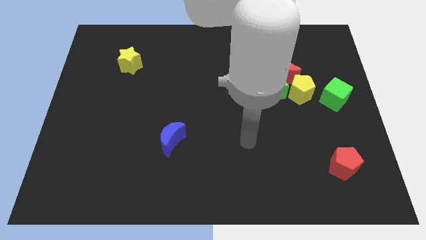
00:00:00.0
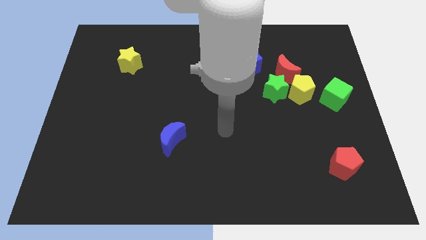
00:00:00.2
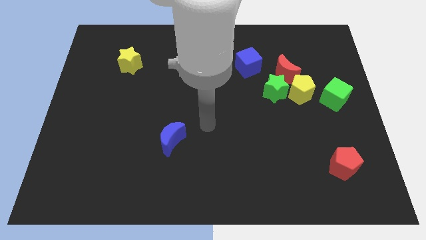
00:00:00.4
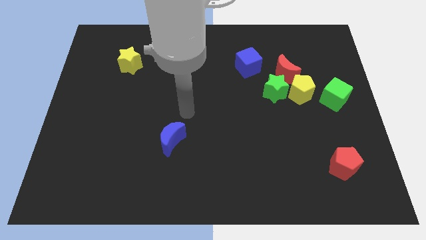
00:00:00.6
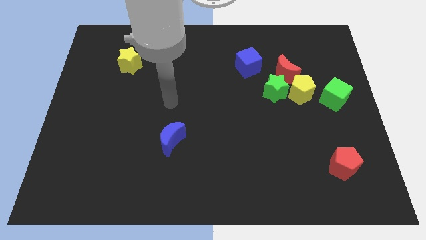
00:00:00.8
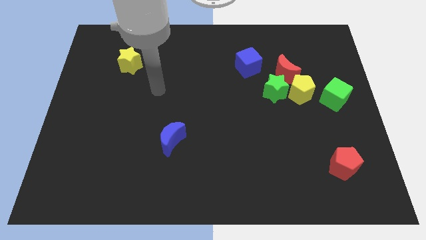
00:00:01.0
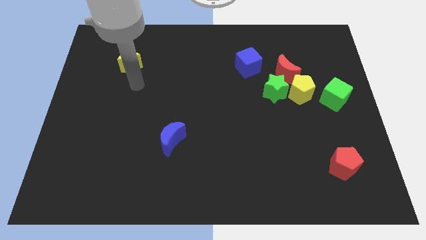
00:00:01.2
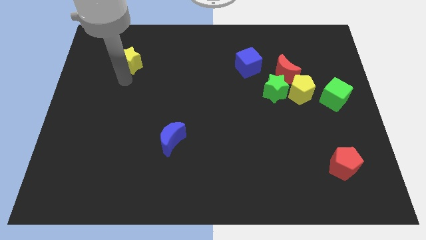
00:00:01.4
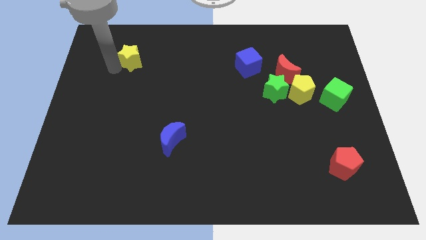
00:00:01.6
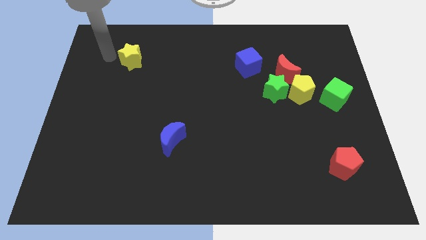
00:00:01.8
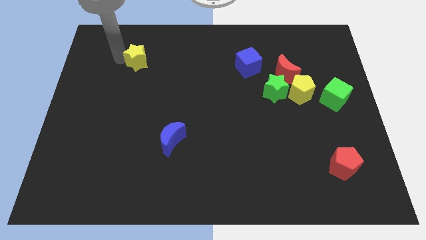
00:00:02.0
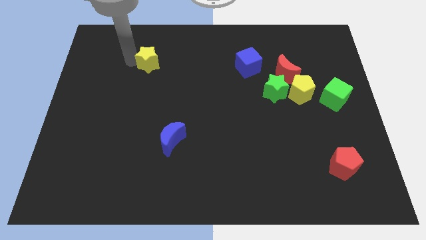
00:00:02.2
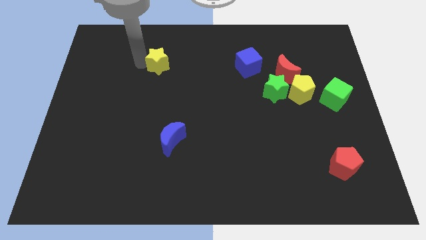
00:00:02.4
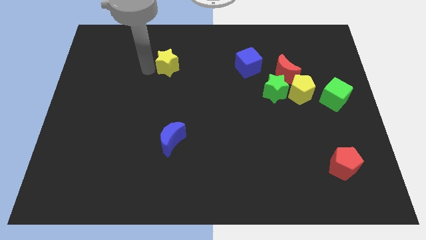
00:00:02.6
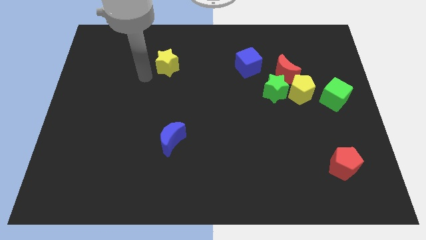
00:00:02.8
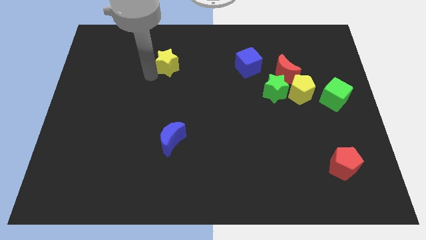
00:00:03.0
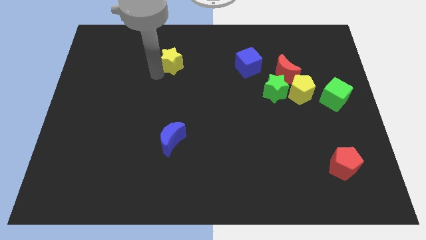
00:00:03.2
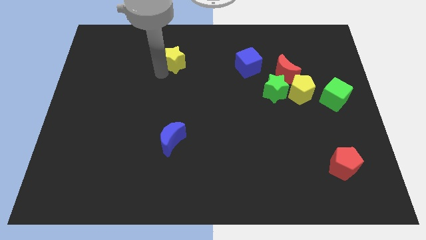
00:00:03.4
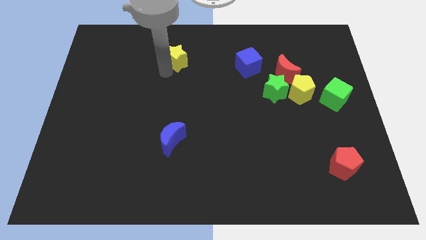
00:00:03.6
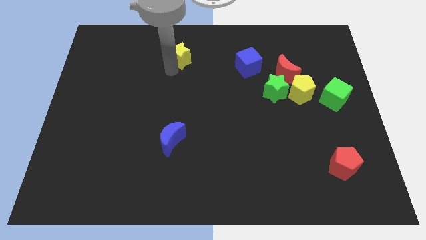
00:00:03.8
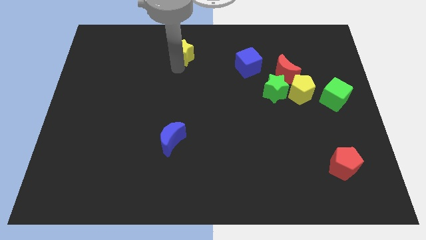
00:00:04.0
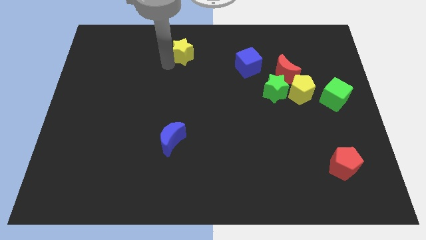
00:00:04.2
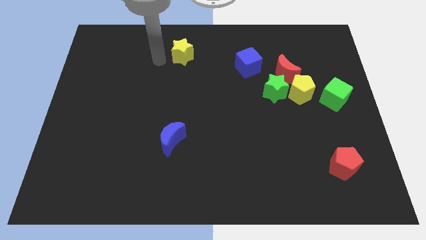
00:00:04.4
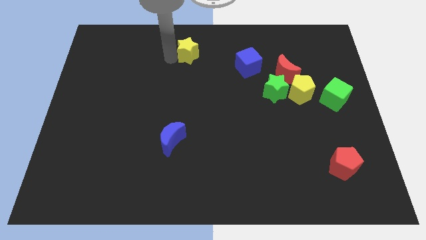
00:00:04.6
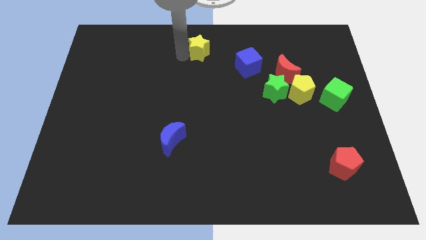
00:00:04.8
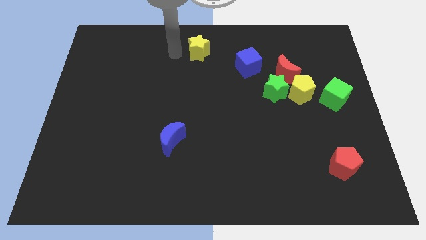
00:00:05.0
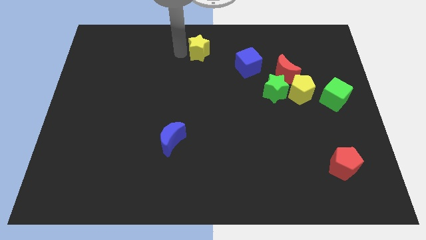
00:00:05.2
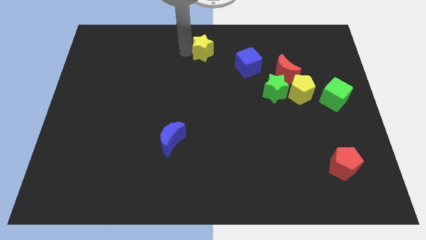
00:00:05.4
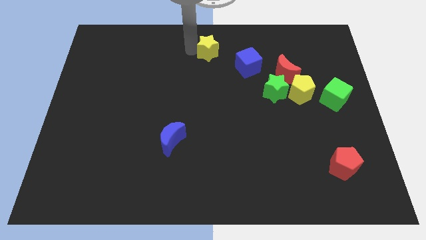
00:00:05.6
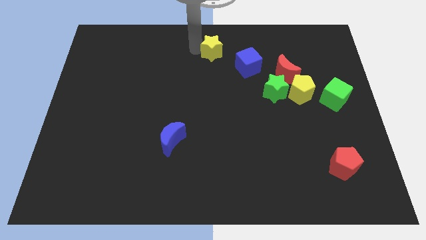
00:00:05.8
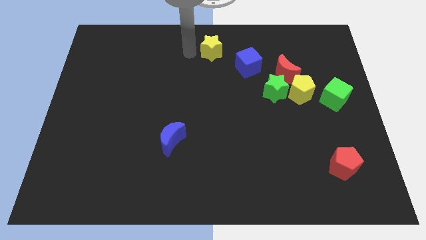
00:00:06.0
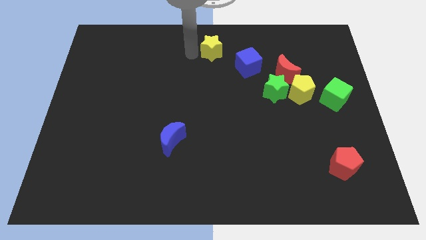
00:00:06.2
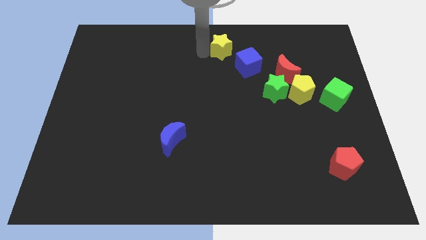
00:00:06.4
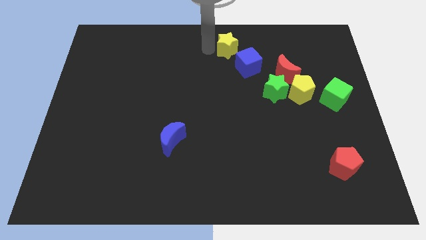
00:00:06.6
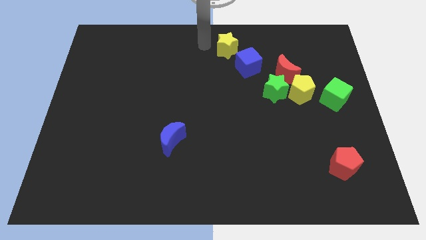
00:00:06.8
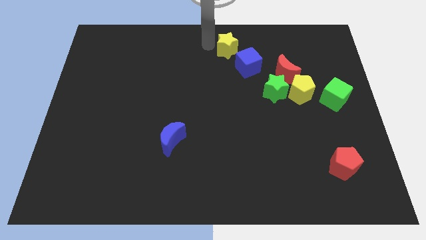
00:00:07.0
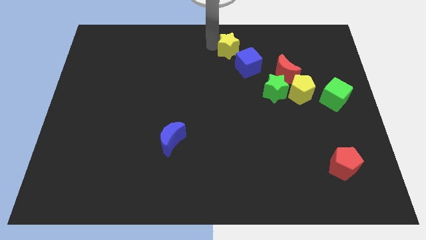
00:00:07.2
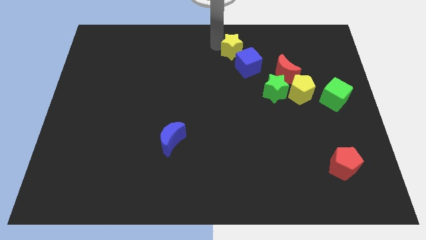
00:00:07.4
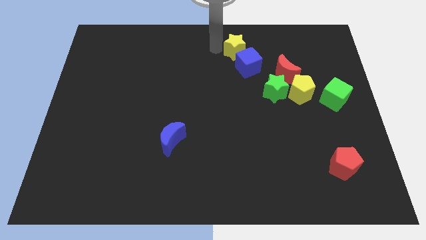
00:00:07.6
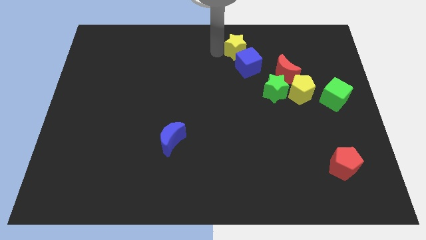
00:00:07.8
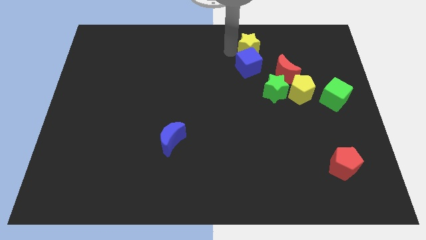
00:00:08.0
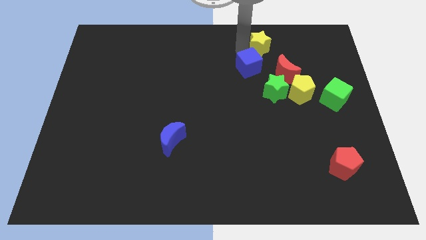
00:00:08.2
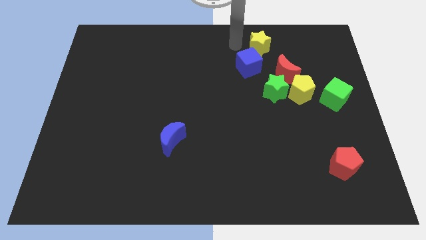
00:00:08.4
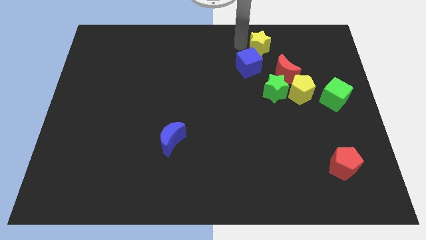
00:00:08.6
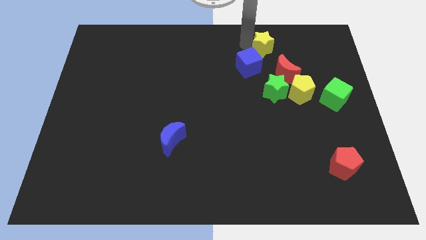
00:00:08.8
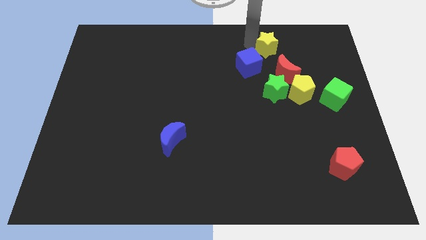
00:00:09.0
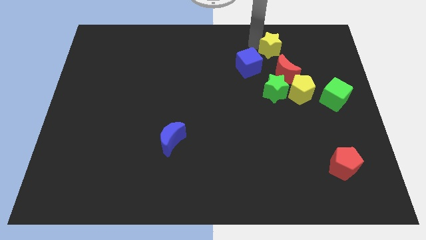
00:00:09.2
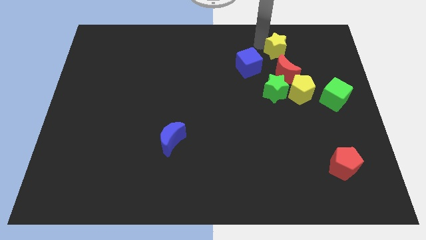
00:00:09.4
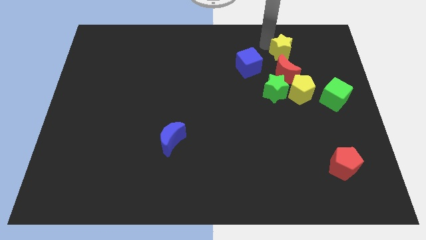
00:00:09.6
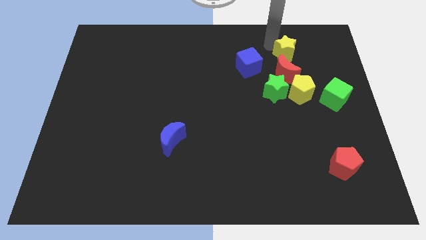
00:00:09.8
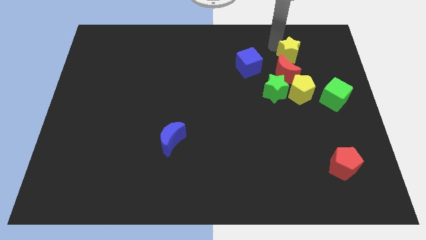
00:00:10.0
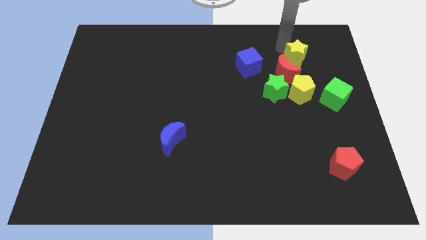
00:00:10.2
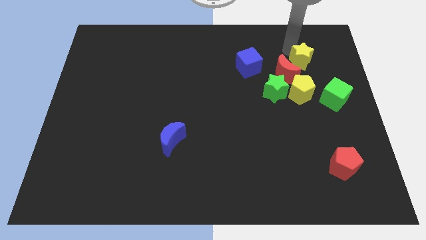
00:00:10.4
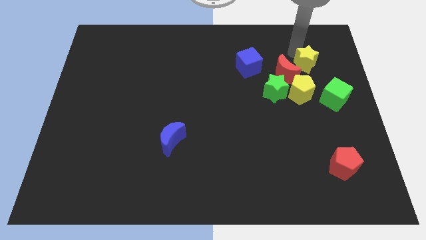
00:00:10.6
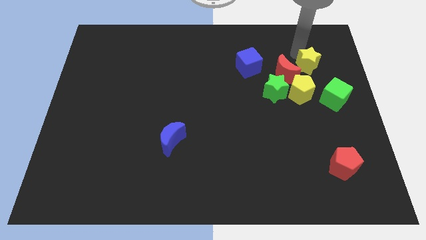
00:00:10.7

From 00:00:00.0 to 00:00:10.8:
move the yellow star to the top right side of the yellow pentagon

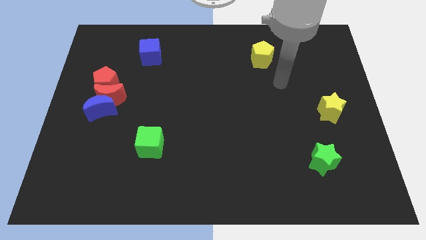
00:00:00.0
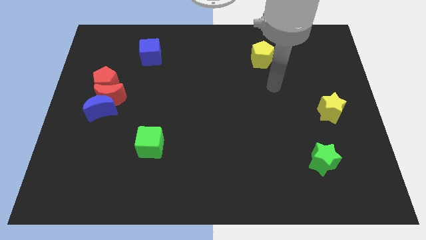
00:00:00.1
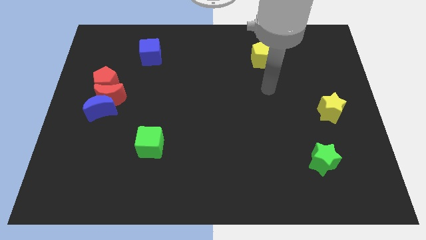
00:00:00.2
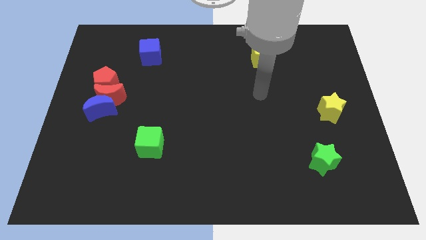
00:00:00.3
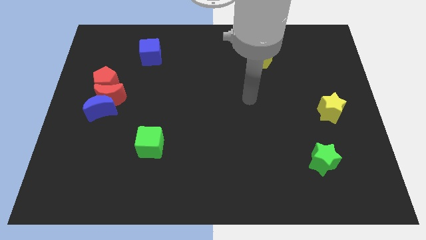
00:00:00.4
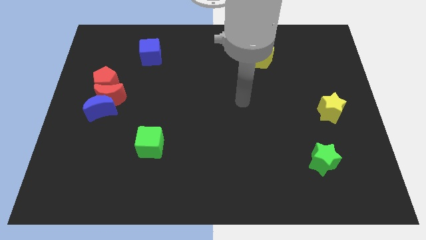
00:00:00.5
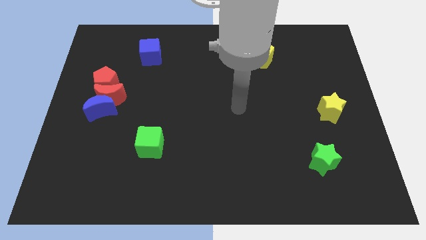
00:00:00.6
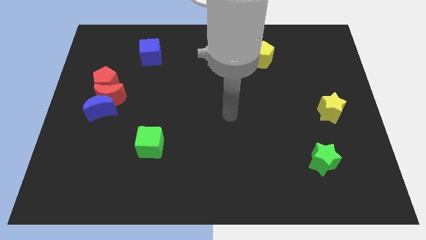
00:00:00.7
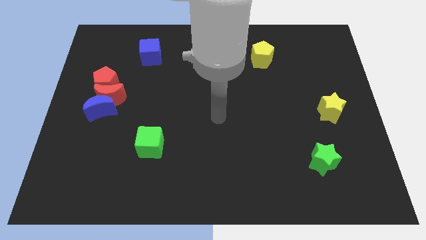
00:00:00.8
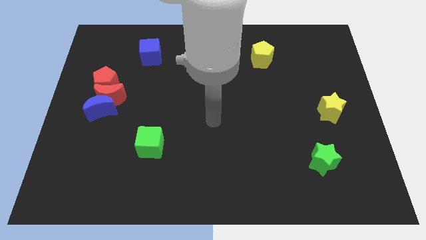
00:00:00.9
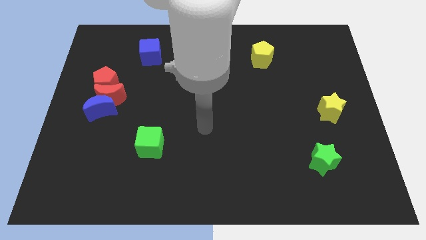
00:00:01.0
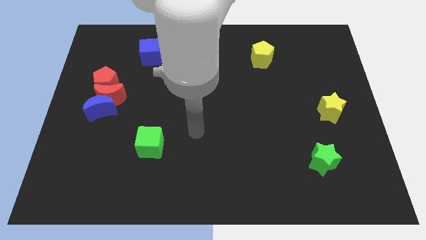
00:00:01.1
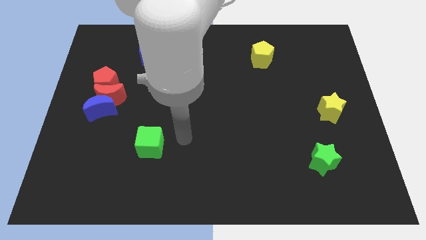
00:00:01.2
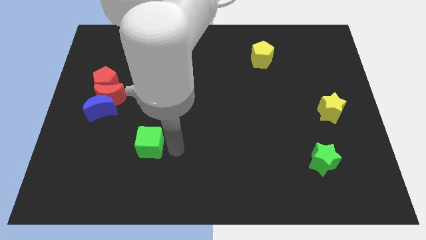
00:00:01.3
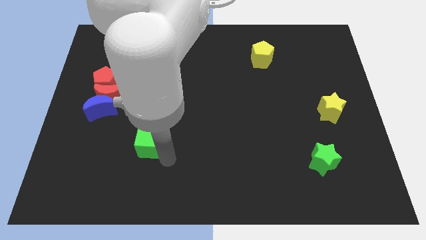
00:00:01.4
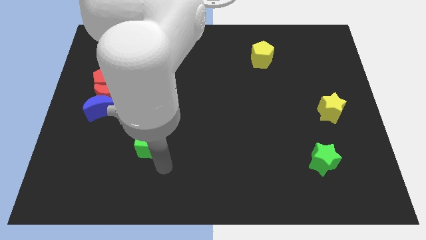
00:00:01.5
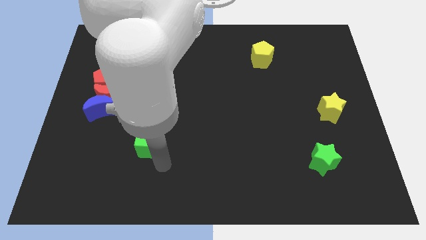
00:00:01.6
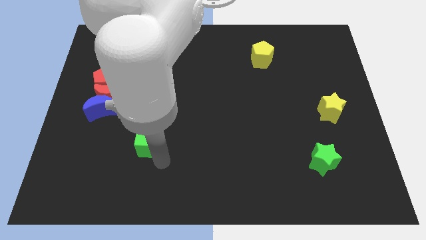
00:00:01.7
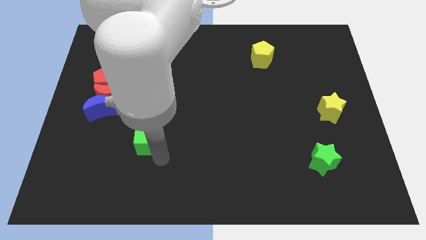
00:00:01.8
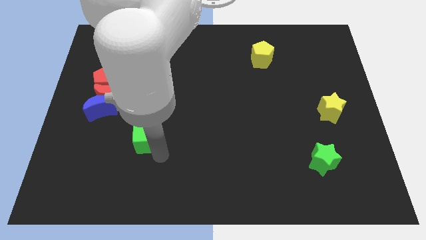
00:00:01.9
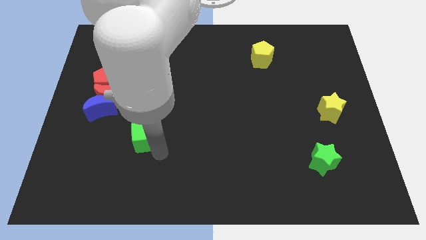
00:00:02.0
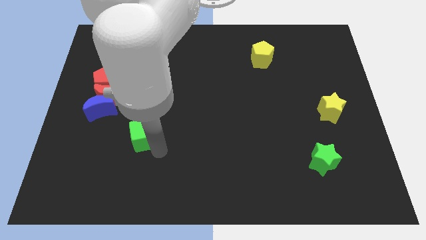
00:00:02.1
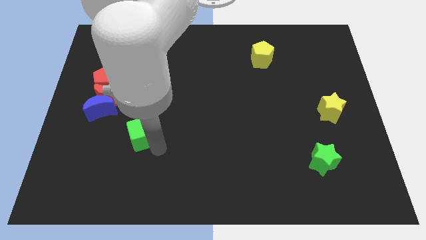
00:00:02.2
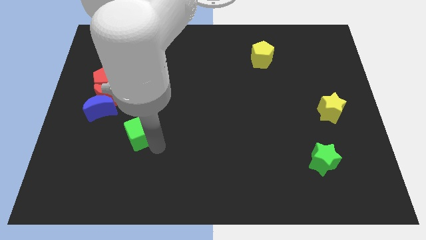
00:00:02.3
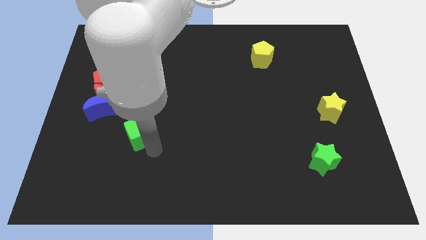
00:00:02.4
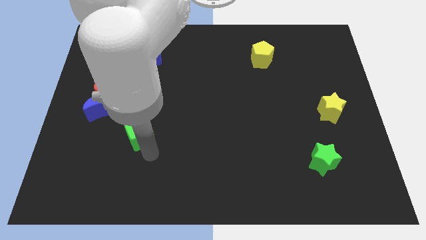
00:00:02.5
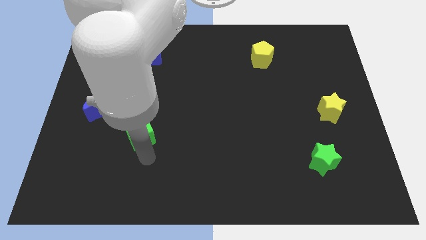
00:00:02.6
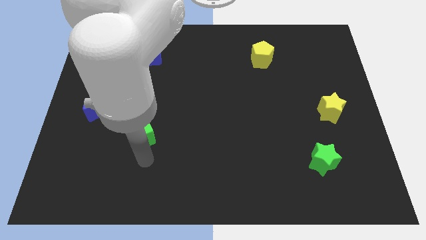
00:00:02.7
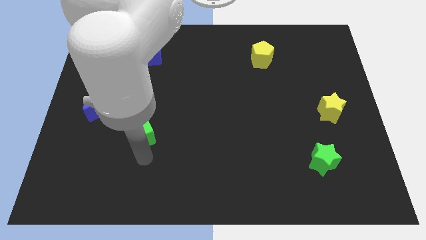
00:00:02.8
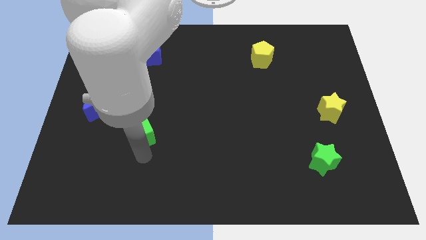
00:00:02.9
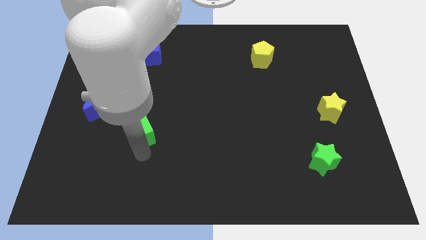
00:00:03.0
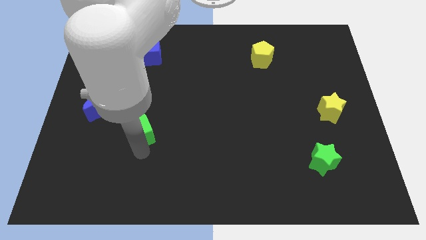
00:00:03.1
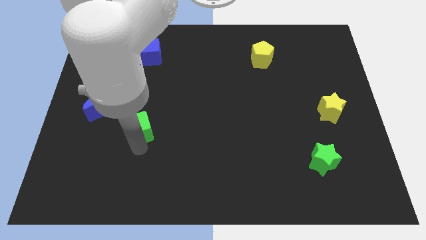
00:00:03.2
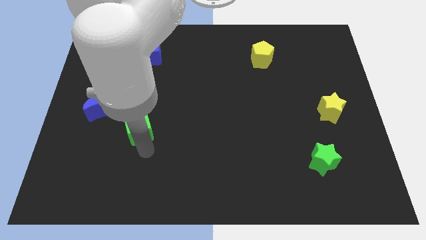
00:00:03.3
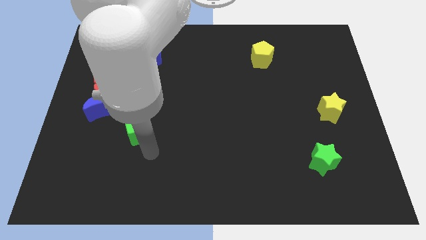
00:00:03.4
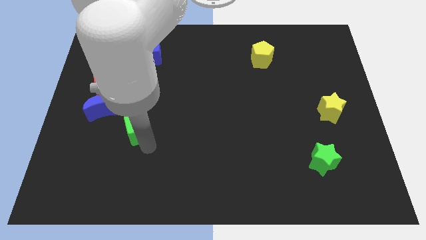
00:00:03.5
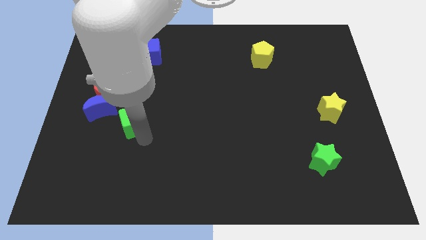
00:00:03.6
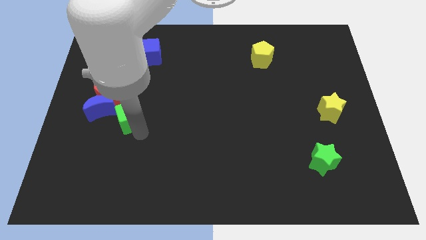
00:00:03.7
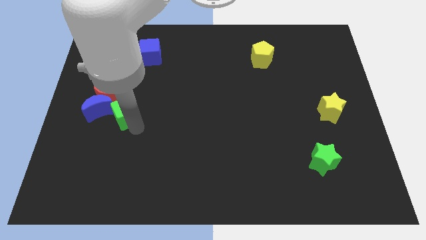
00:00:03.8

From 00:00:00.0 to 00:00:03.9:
put the green cube to the bottom right of the red pentagon
